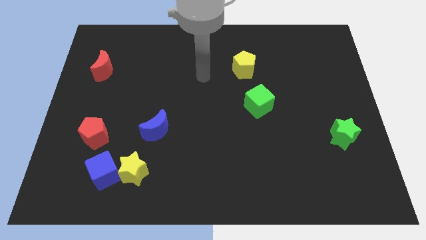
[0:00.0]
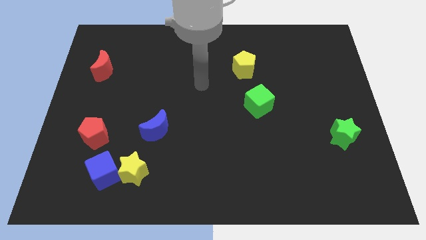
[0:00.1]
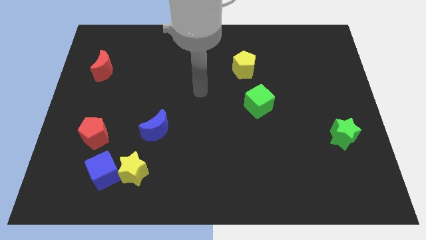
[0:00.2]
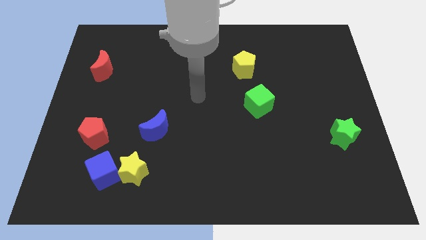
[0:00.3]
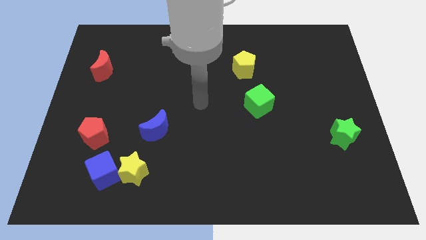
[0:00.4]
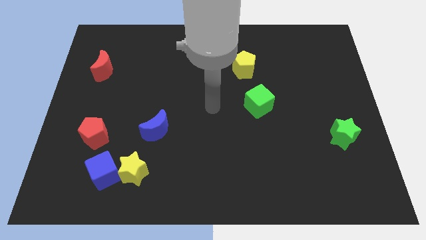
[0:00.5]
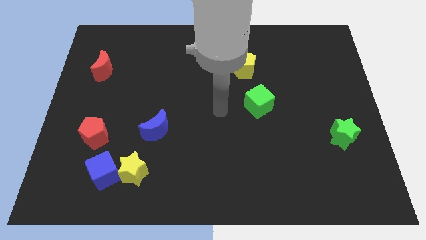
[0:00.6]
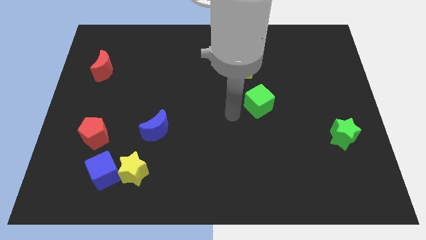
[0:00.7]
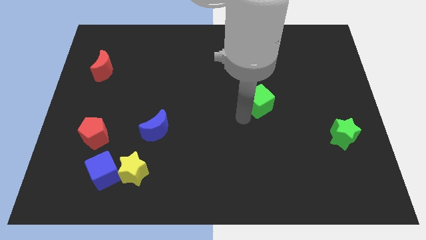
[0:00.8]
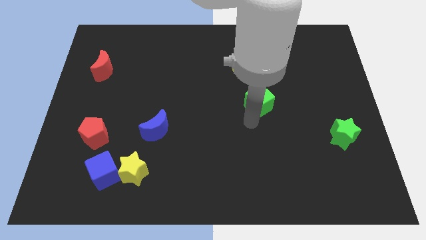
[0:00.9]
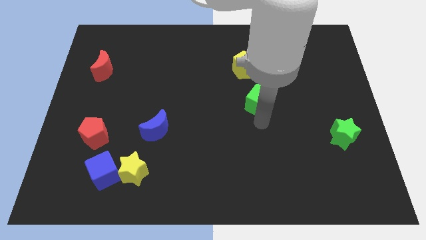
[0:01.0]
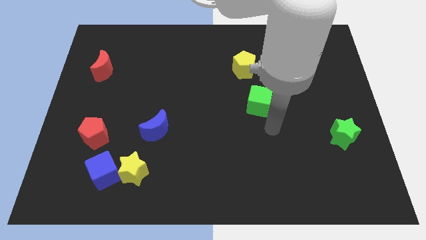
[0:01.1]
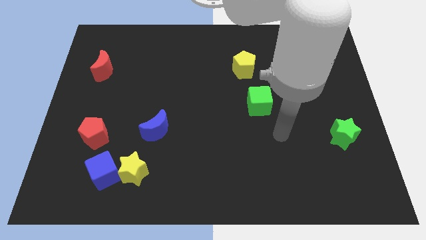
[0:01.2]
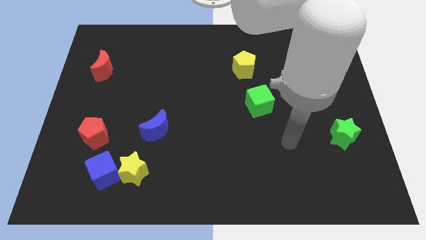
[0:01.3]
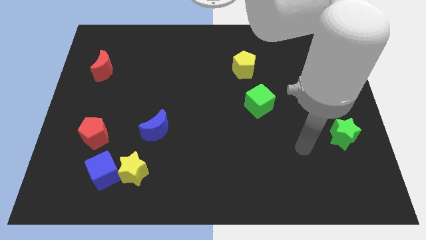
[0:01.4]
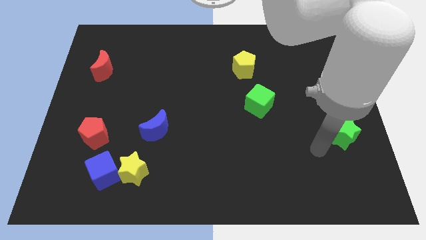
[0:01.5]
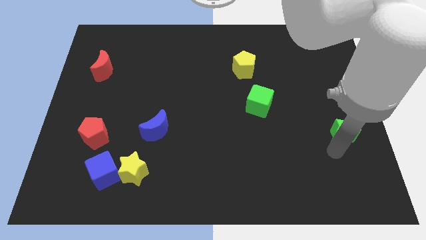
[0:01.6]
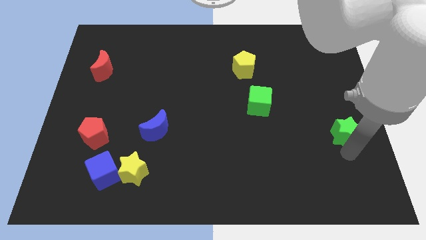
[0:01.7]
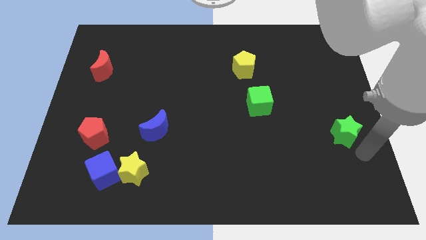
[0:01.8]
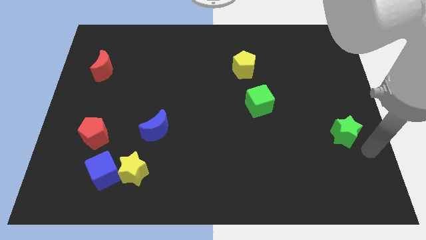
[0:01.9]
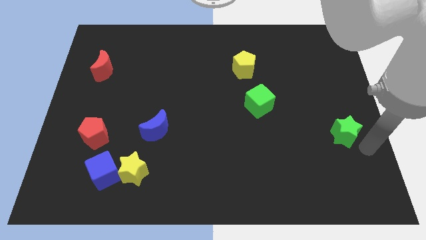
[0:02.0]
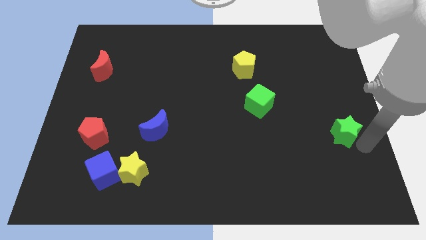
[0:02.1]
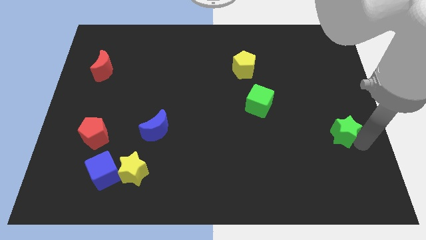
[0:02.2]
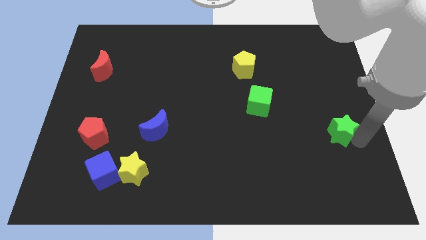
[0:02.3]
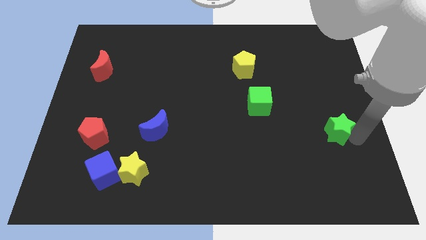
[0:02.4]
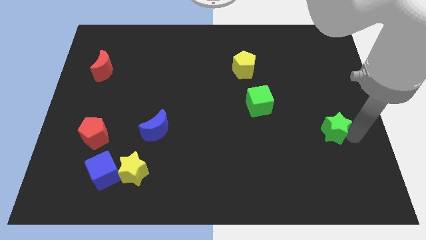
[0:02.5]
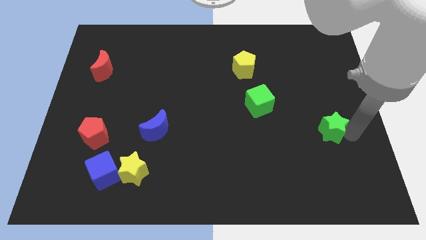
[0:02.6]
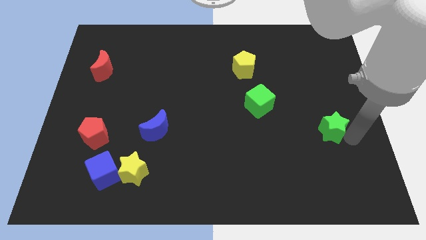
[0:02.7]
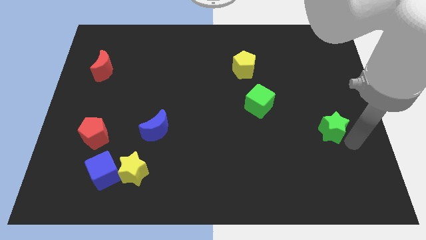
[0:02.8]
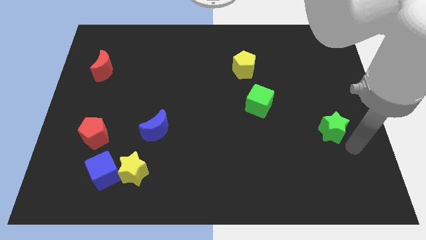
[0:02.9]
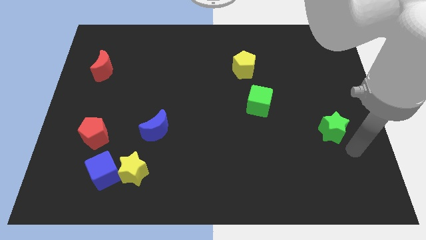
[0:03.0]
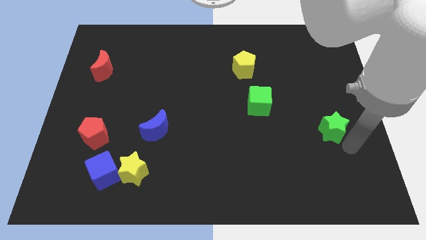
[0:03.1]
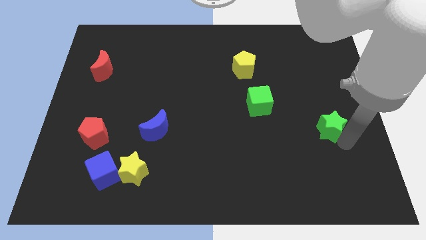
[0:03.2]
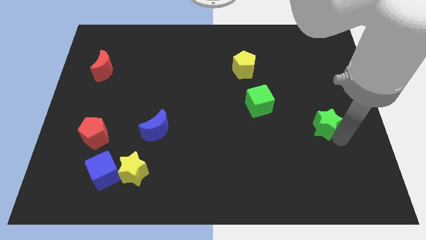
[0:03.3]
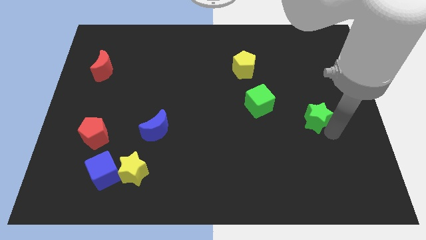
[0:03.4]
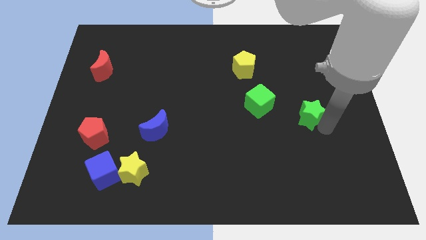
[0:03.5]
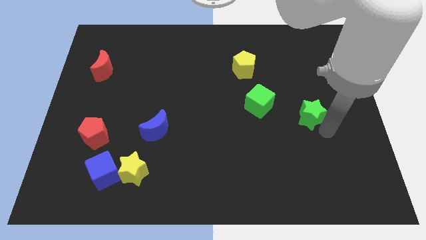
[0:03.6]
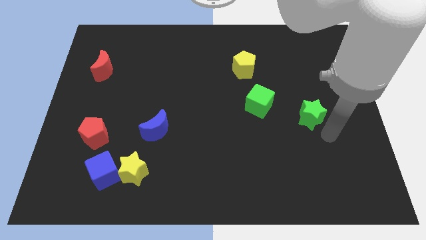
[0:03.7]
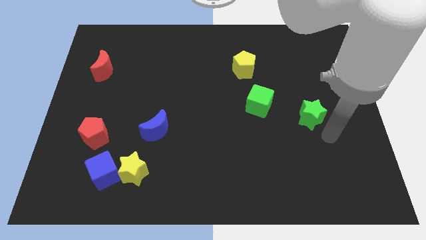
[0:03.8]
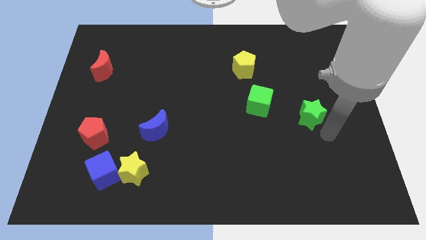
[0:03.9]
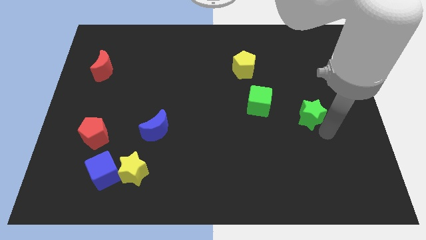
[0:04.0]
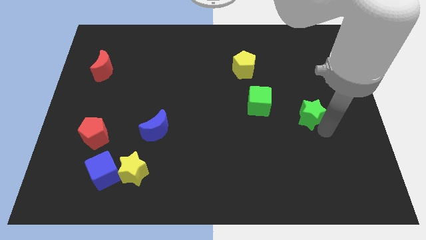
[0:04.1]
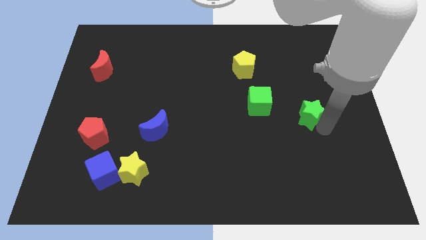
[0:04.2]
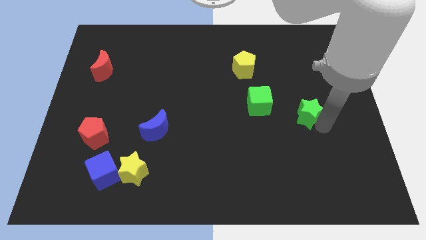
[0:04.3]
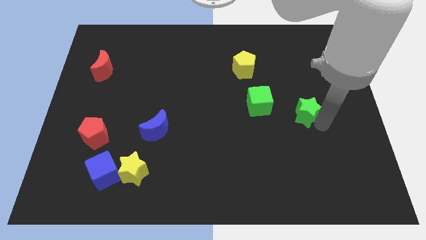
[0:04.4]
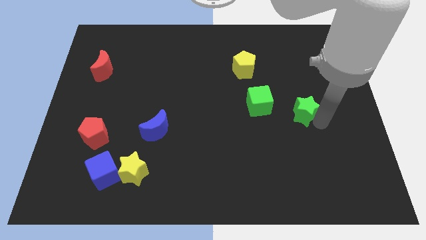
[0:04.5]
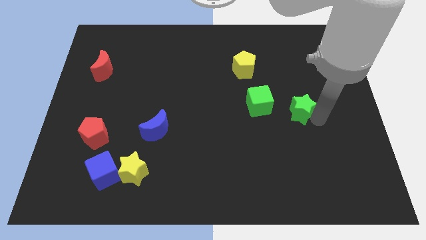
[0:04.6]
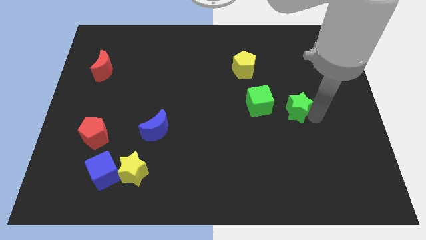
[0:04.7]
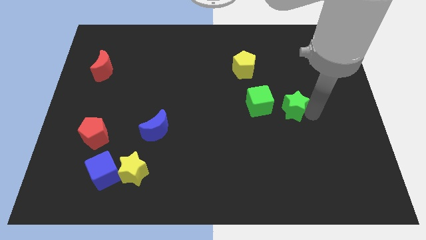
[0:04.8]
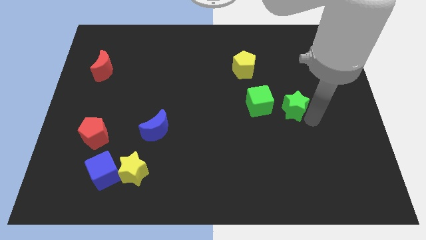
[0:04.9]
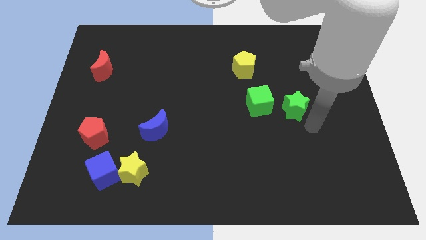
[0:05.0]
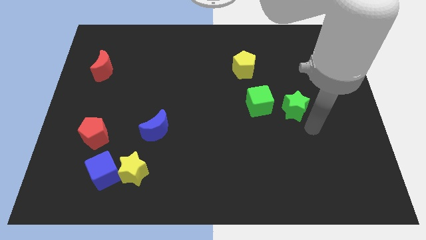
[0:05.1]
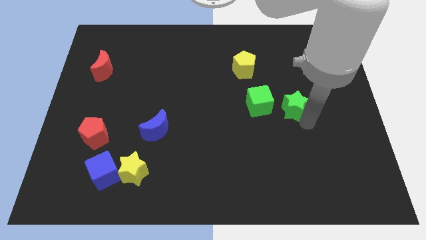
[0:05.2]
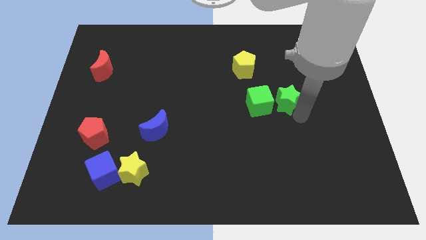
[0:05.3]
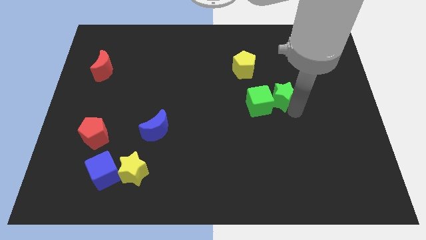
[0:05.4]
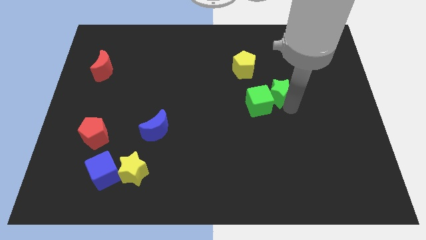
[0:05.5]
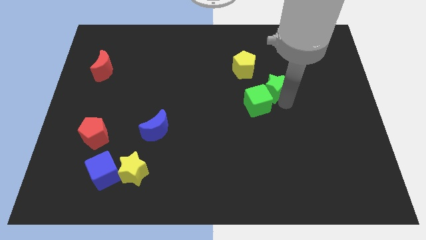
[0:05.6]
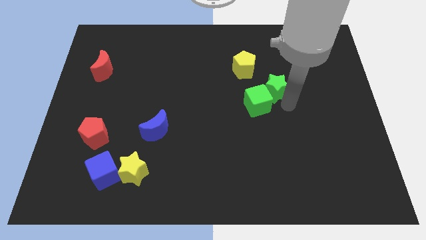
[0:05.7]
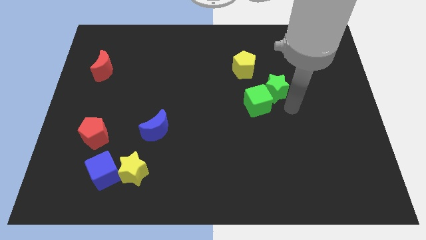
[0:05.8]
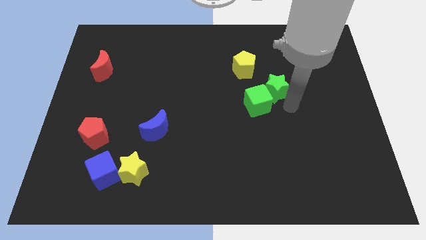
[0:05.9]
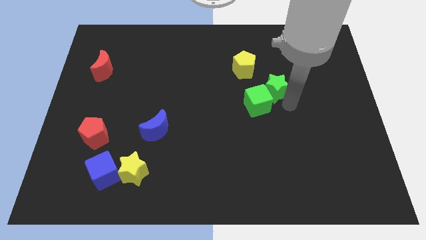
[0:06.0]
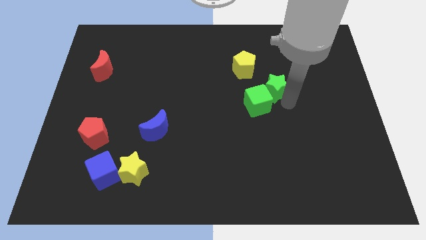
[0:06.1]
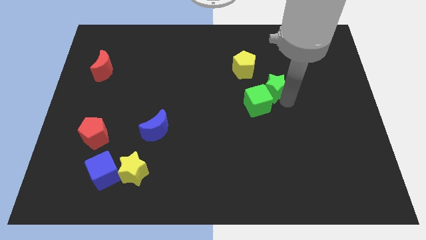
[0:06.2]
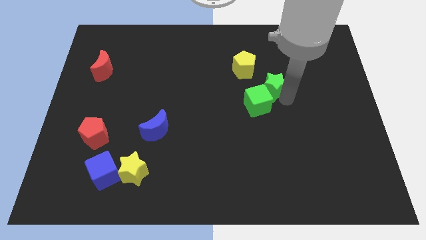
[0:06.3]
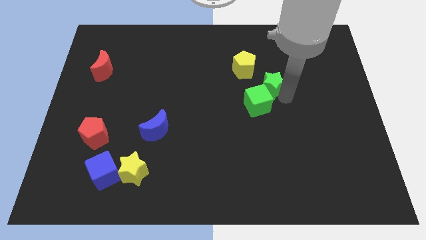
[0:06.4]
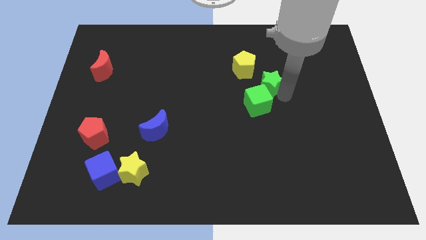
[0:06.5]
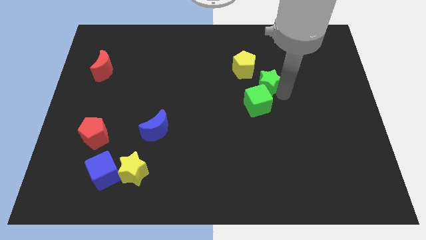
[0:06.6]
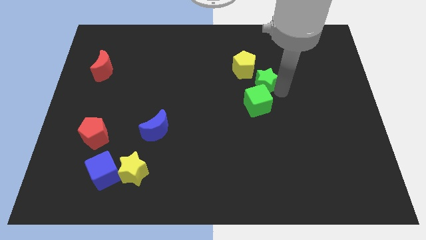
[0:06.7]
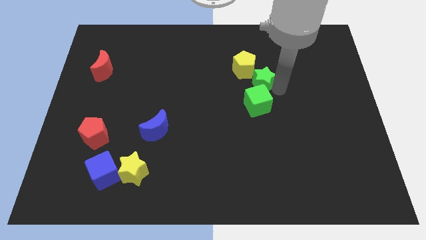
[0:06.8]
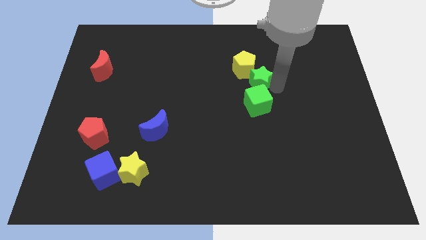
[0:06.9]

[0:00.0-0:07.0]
put the green star towards the yellow pentagon
